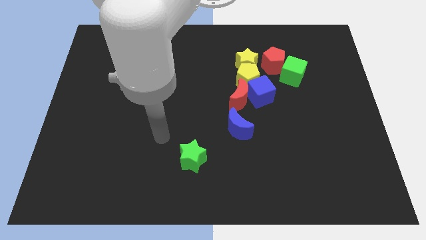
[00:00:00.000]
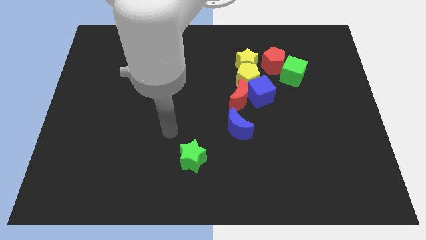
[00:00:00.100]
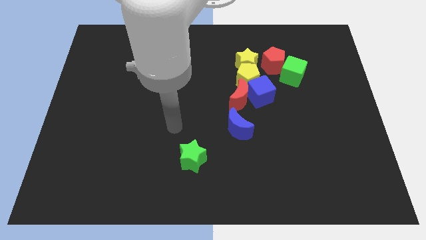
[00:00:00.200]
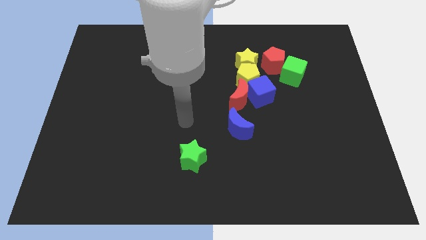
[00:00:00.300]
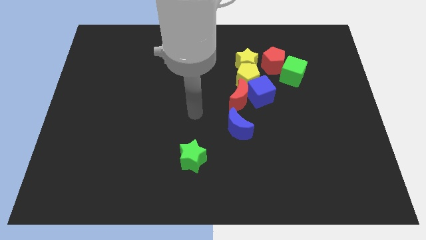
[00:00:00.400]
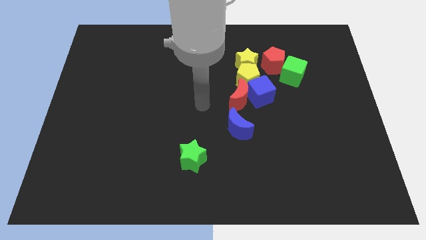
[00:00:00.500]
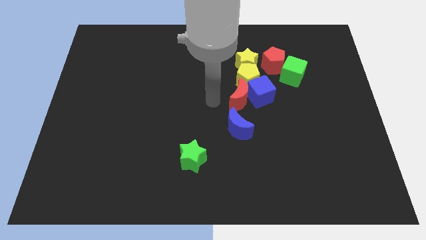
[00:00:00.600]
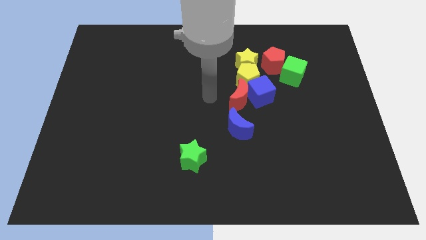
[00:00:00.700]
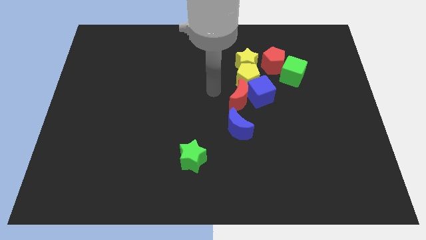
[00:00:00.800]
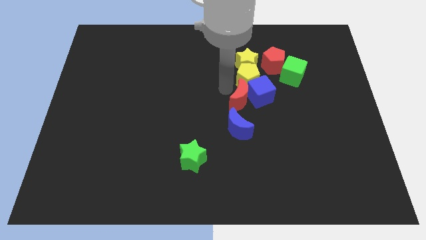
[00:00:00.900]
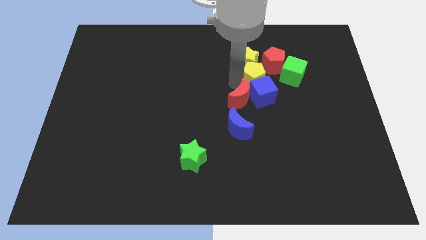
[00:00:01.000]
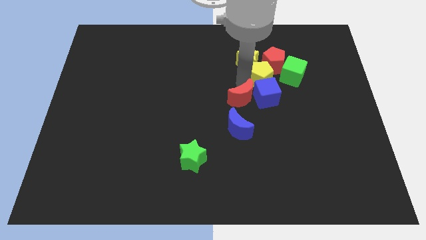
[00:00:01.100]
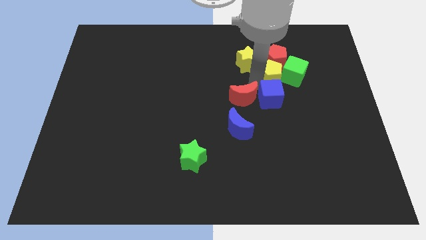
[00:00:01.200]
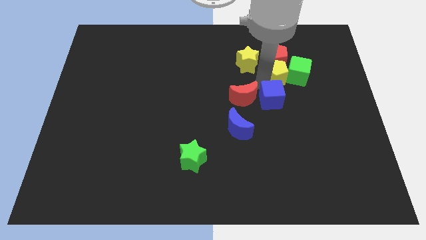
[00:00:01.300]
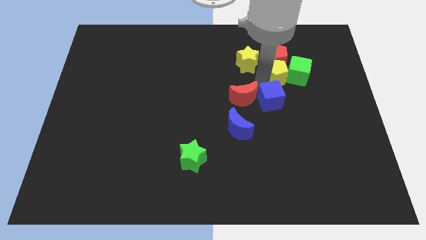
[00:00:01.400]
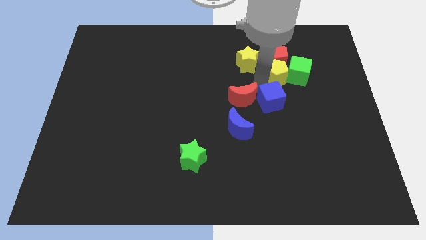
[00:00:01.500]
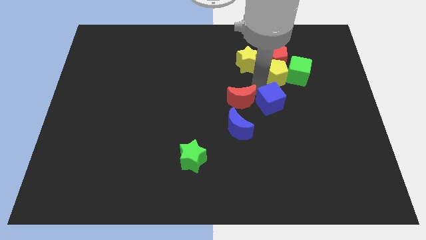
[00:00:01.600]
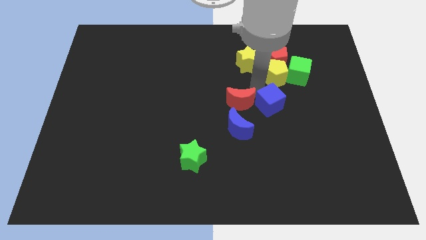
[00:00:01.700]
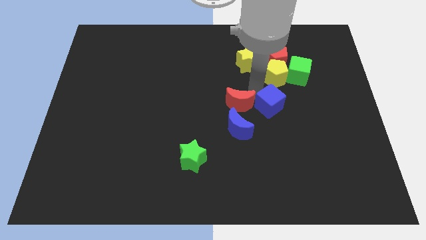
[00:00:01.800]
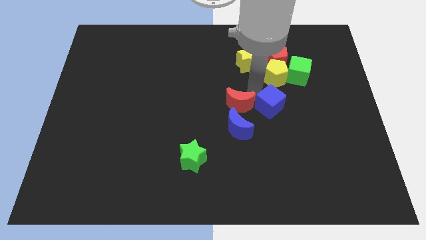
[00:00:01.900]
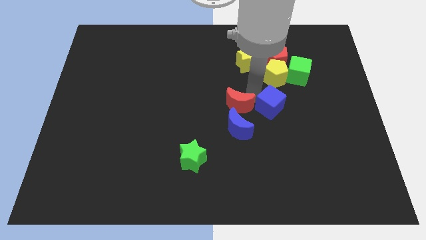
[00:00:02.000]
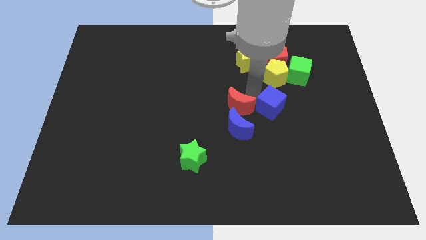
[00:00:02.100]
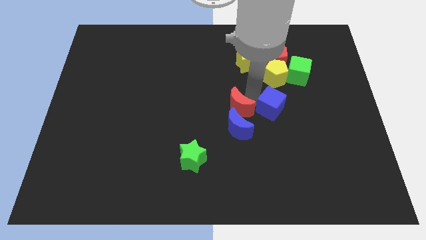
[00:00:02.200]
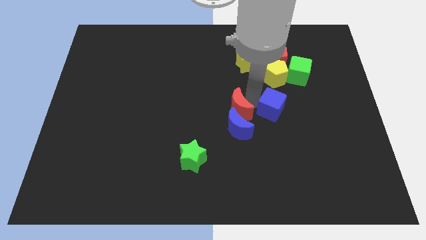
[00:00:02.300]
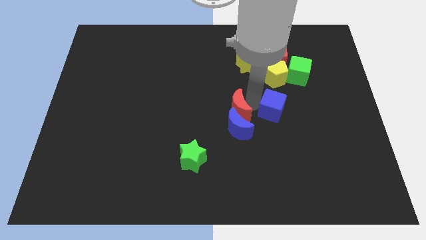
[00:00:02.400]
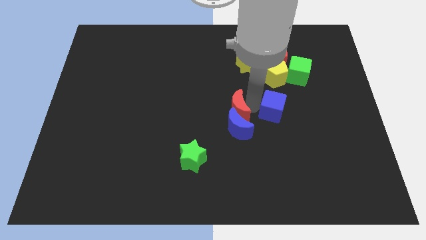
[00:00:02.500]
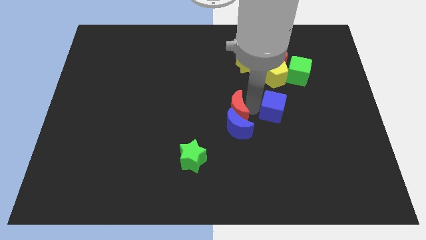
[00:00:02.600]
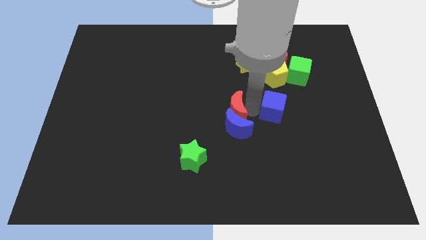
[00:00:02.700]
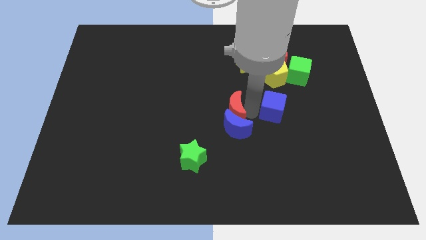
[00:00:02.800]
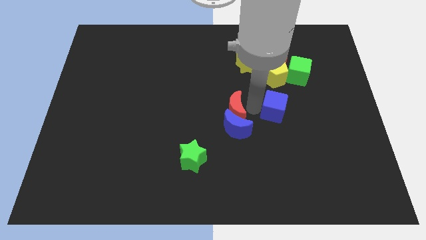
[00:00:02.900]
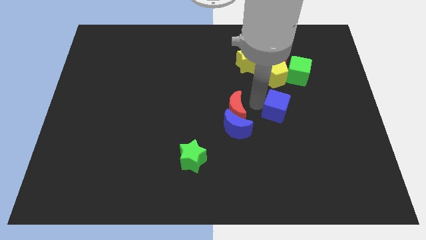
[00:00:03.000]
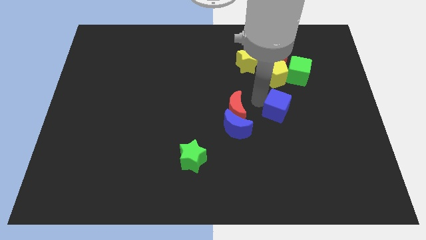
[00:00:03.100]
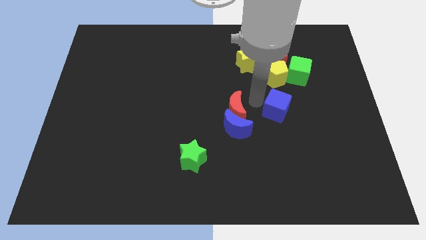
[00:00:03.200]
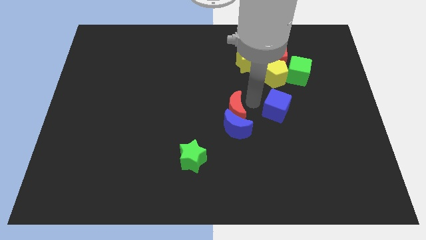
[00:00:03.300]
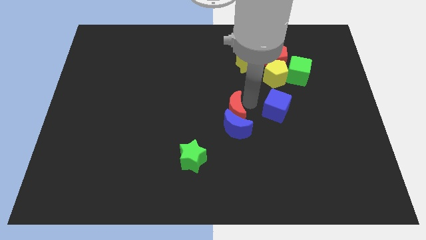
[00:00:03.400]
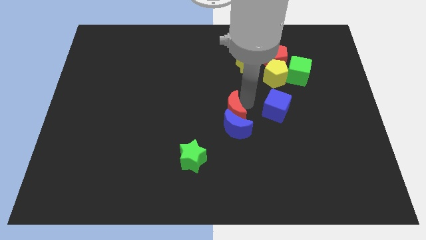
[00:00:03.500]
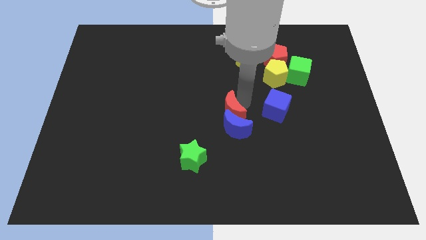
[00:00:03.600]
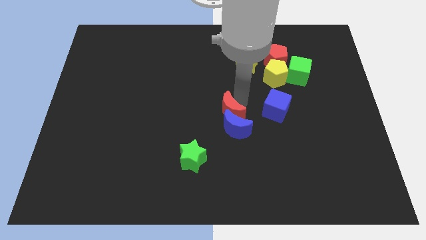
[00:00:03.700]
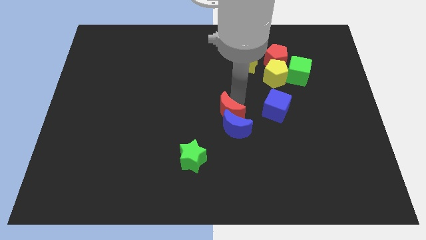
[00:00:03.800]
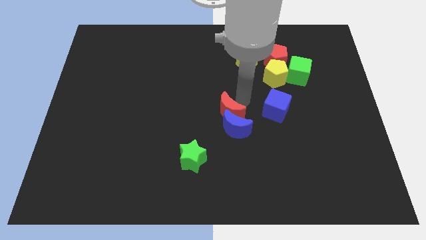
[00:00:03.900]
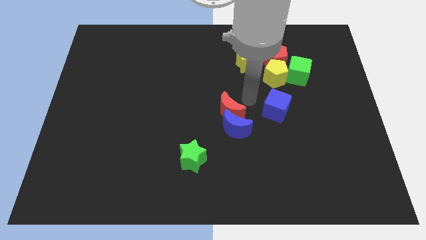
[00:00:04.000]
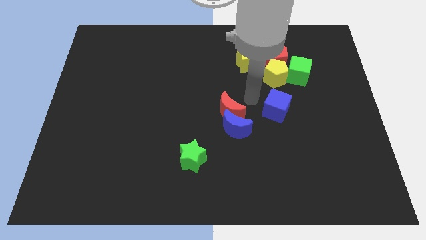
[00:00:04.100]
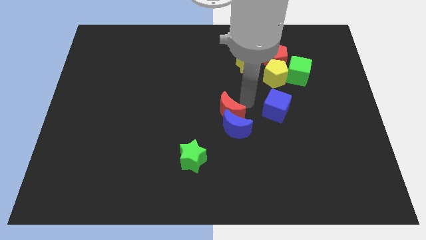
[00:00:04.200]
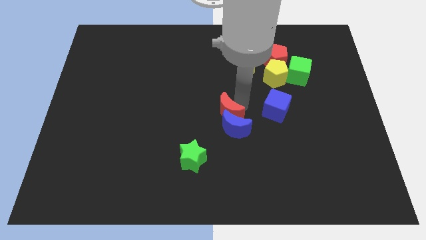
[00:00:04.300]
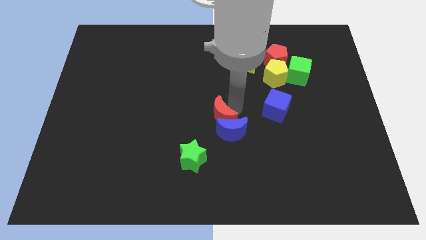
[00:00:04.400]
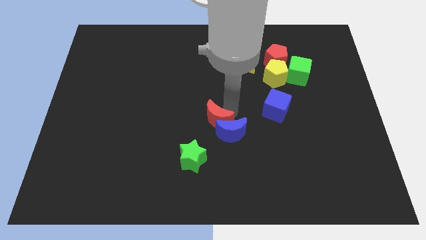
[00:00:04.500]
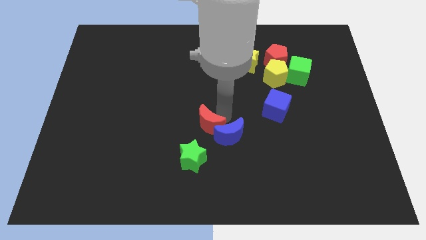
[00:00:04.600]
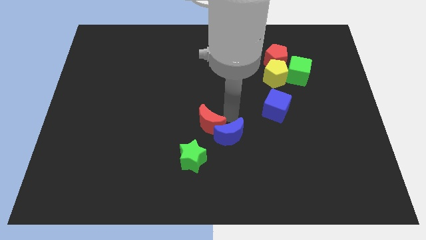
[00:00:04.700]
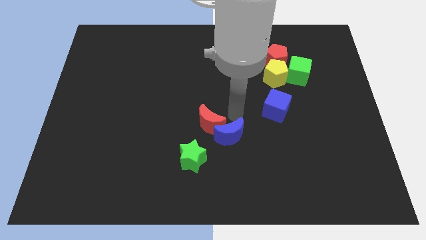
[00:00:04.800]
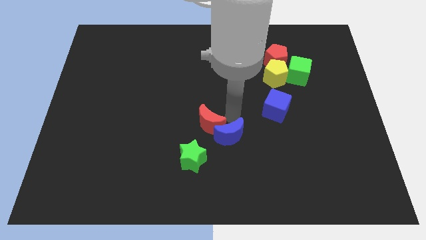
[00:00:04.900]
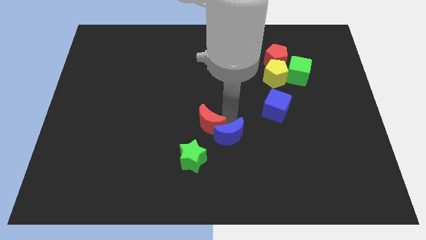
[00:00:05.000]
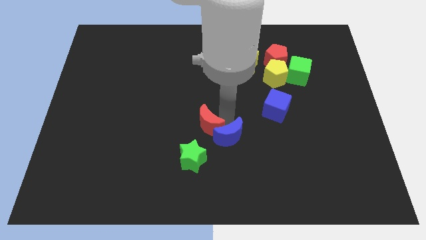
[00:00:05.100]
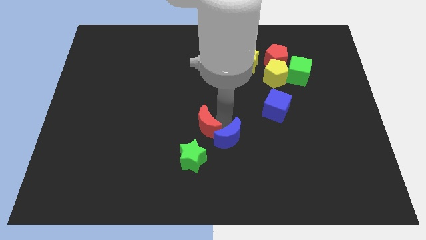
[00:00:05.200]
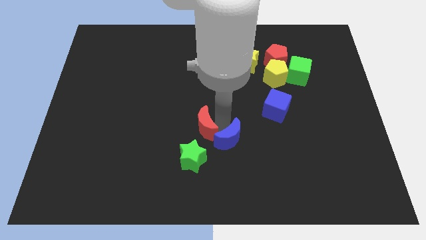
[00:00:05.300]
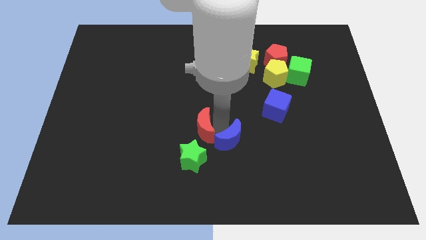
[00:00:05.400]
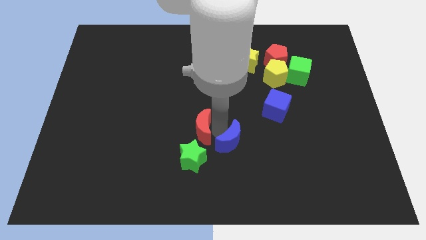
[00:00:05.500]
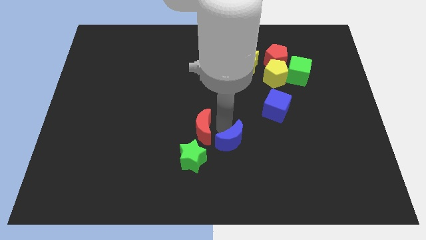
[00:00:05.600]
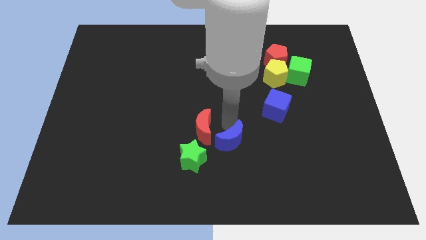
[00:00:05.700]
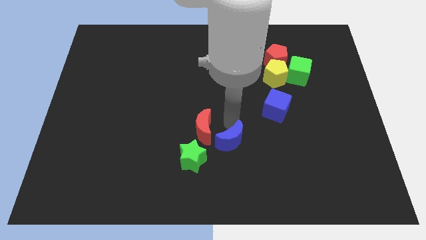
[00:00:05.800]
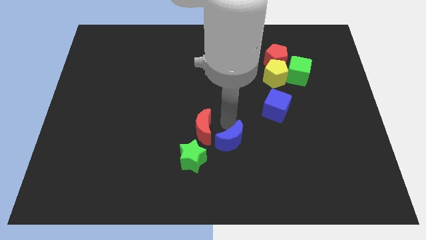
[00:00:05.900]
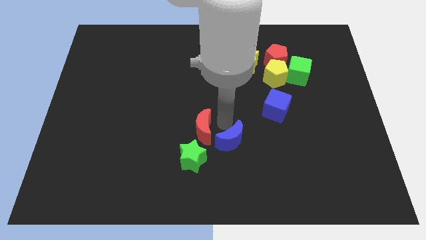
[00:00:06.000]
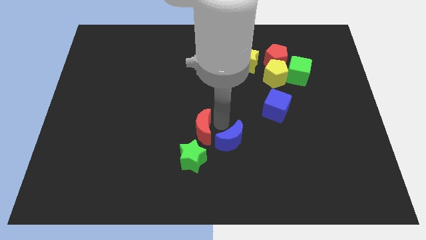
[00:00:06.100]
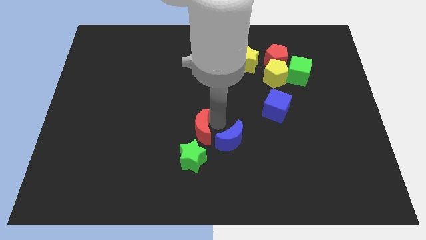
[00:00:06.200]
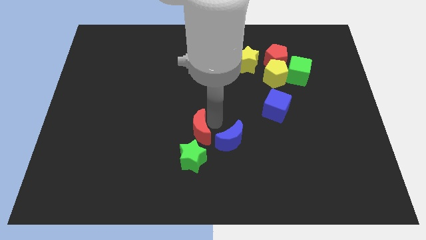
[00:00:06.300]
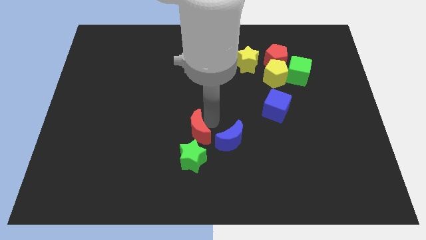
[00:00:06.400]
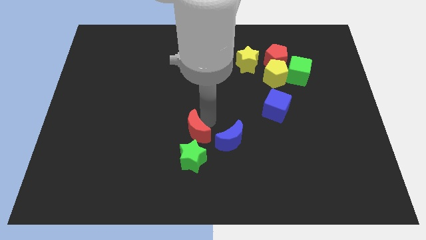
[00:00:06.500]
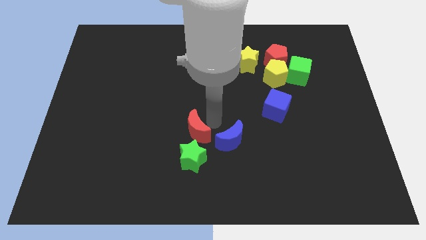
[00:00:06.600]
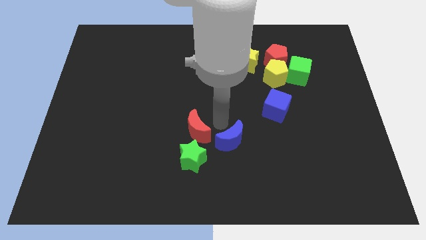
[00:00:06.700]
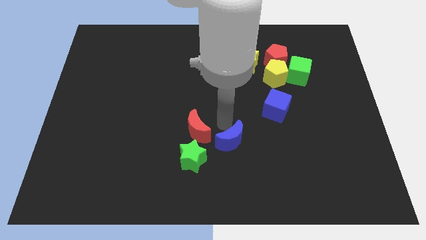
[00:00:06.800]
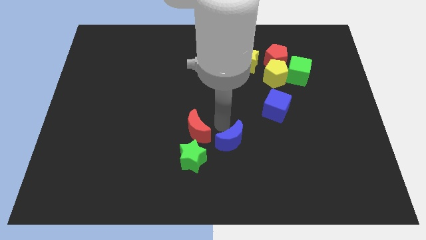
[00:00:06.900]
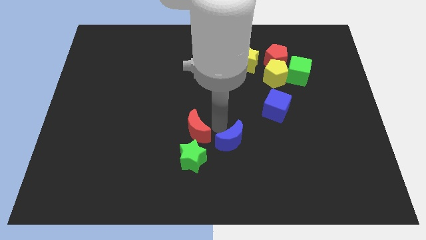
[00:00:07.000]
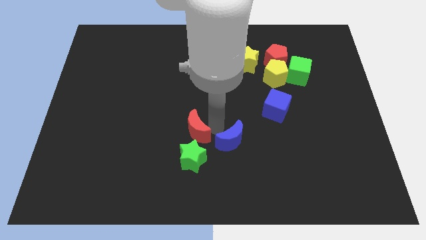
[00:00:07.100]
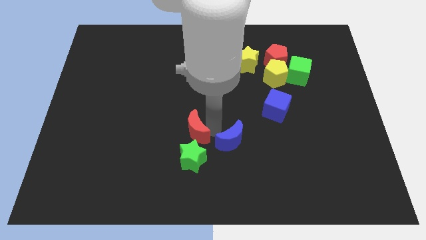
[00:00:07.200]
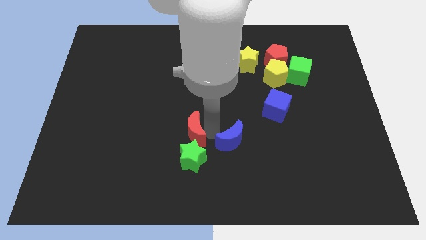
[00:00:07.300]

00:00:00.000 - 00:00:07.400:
move the red moon to the top left of the green star
